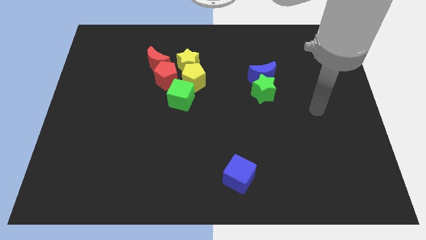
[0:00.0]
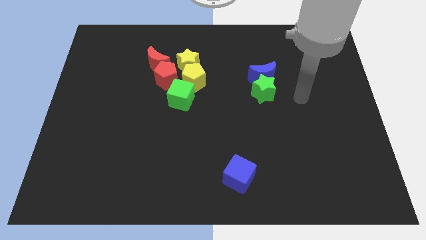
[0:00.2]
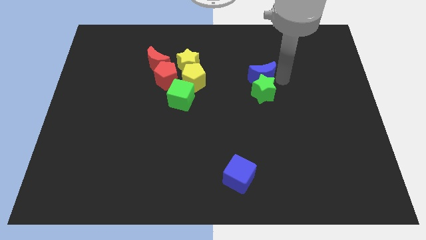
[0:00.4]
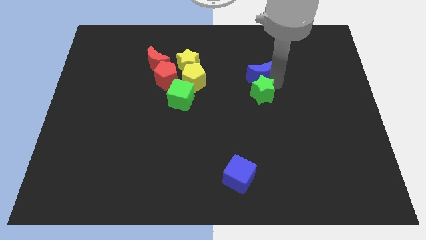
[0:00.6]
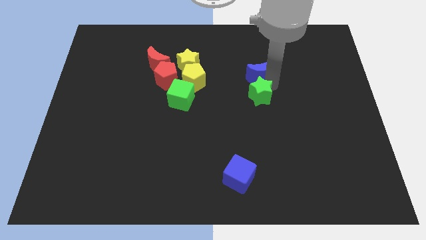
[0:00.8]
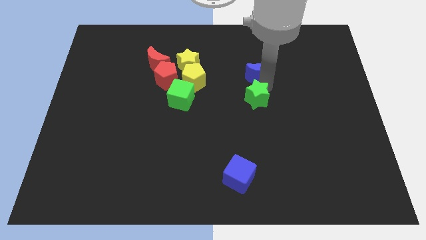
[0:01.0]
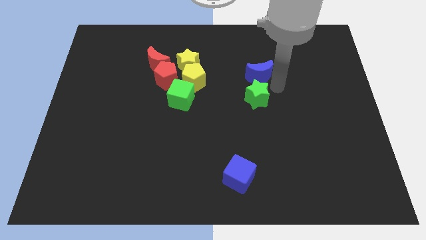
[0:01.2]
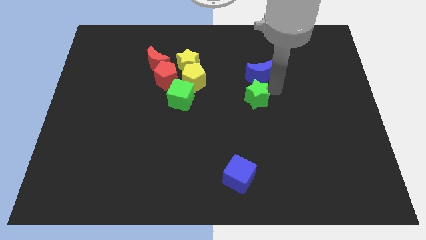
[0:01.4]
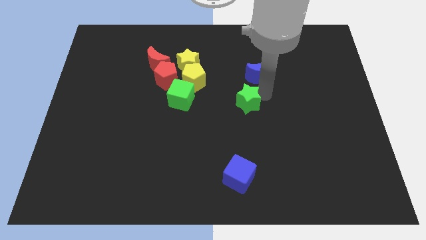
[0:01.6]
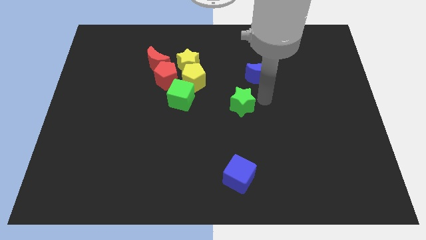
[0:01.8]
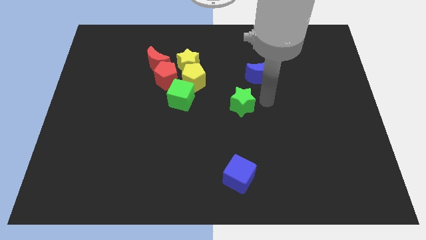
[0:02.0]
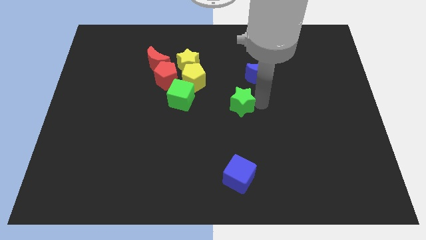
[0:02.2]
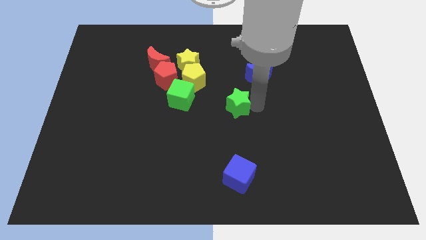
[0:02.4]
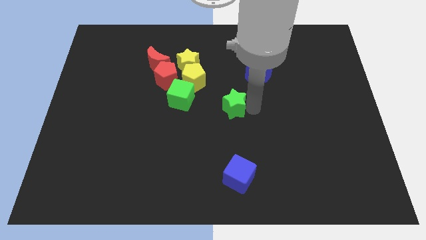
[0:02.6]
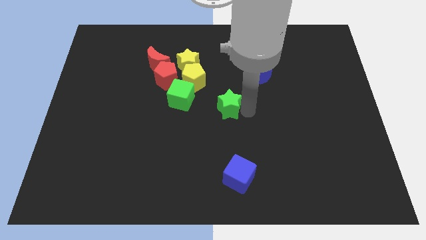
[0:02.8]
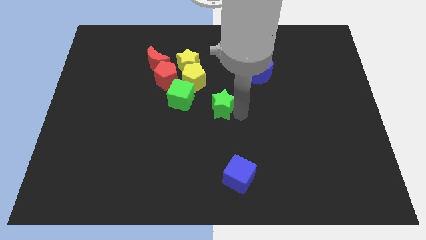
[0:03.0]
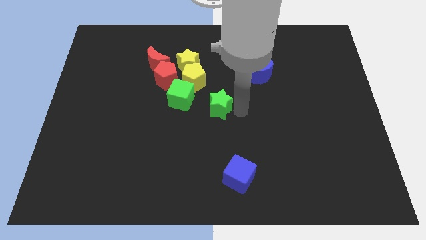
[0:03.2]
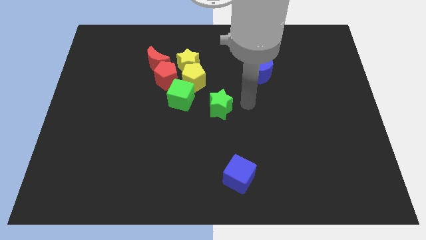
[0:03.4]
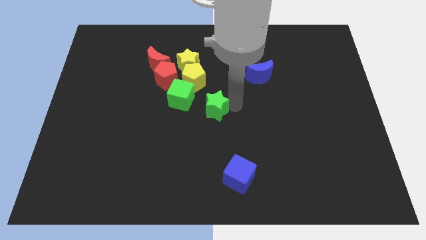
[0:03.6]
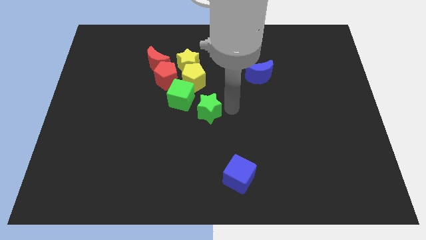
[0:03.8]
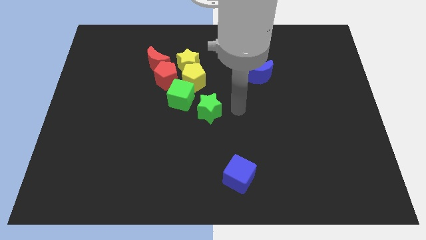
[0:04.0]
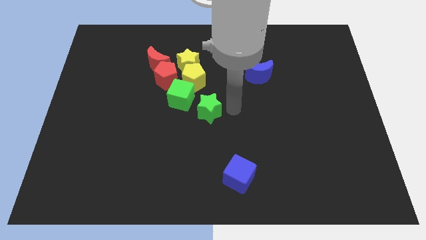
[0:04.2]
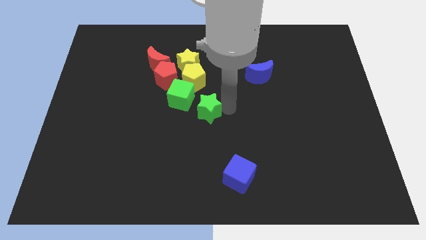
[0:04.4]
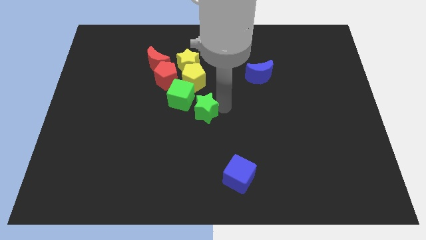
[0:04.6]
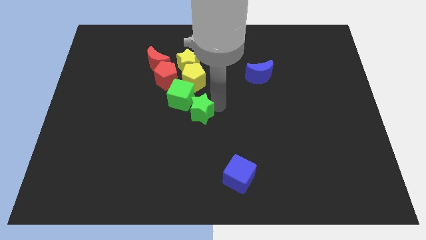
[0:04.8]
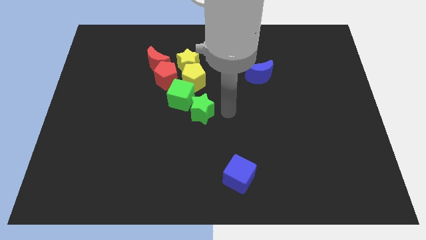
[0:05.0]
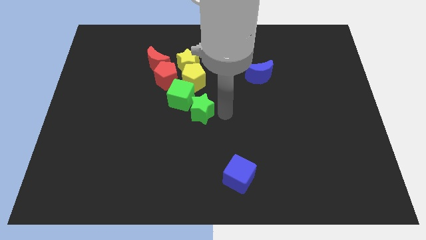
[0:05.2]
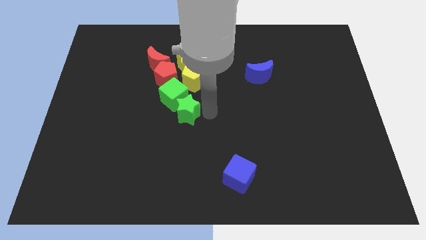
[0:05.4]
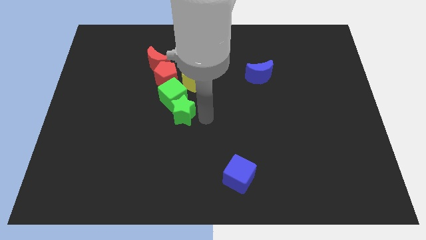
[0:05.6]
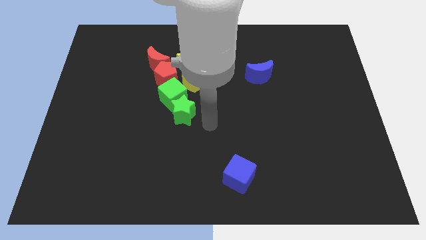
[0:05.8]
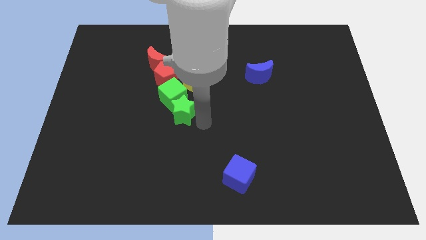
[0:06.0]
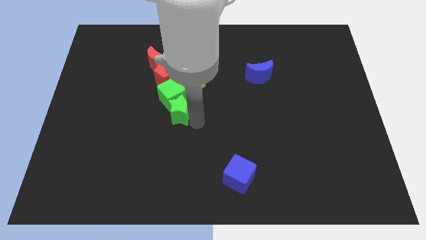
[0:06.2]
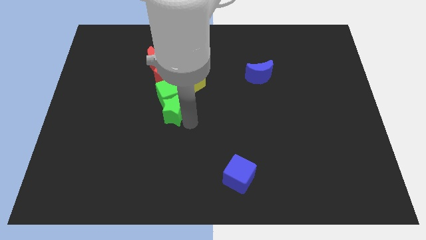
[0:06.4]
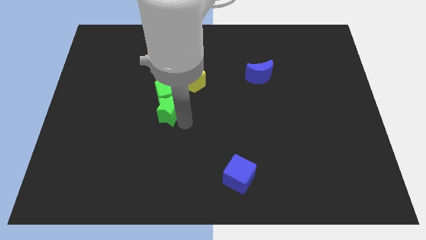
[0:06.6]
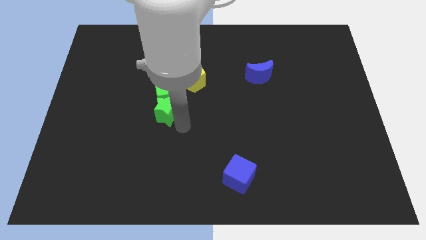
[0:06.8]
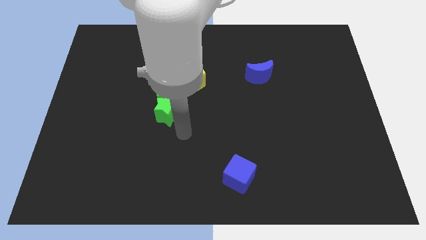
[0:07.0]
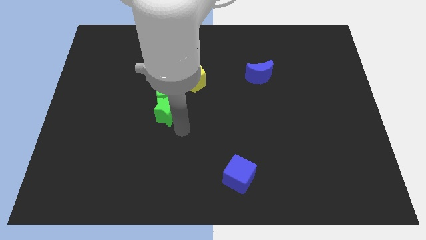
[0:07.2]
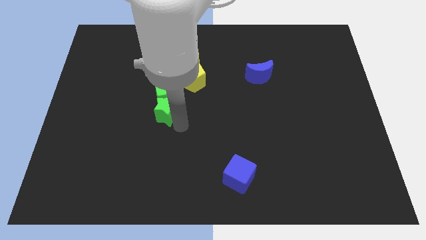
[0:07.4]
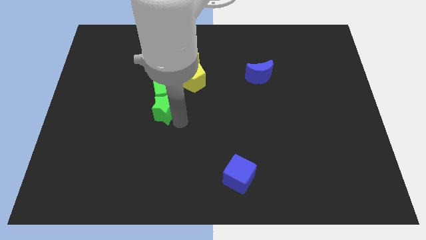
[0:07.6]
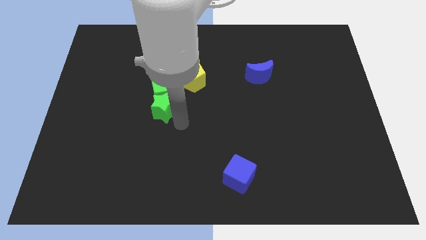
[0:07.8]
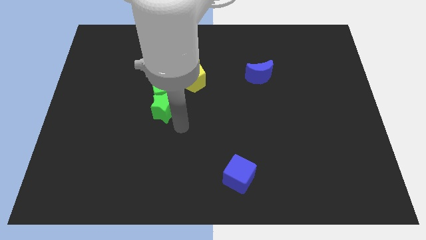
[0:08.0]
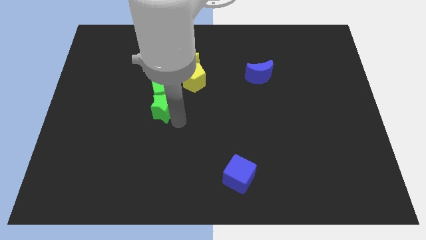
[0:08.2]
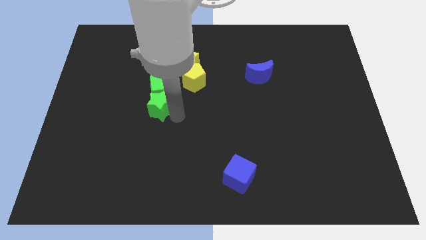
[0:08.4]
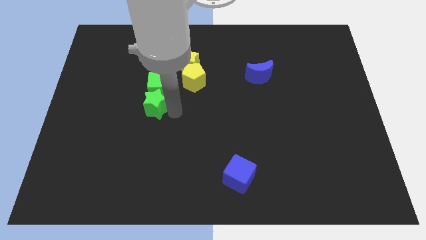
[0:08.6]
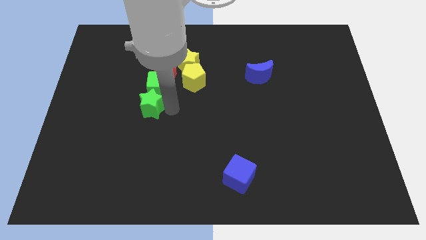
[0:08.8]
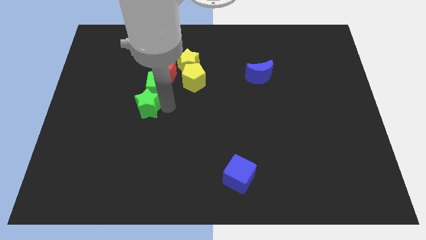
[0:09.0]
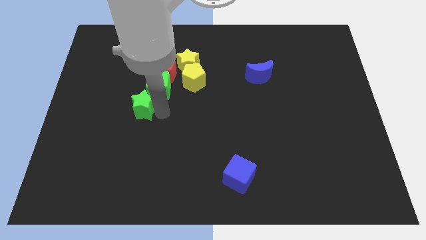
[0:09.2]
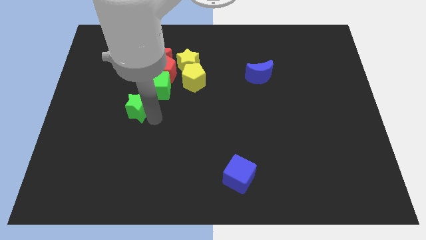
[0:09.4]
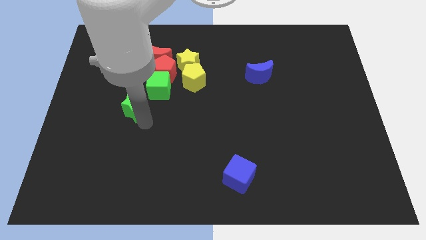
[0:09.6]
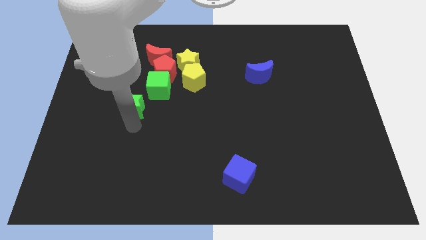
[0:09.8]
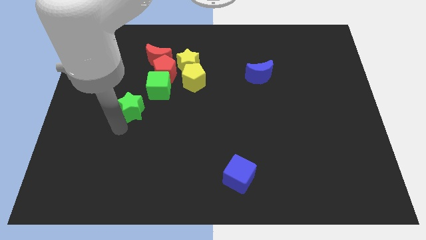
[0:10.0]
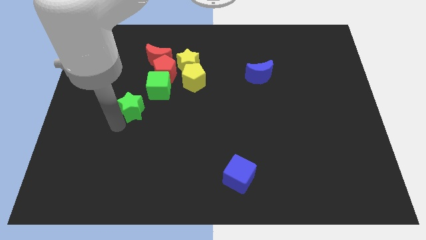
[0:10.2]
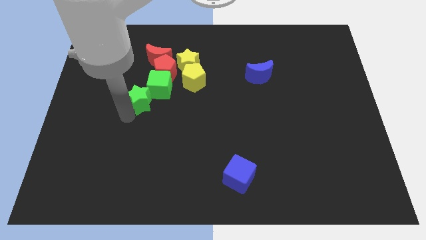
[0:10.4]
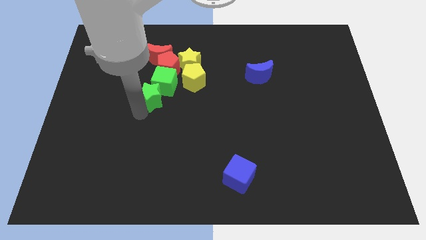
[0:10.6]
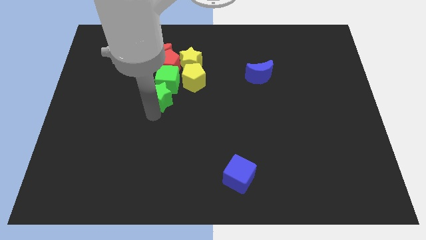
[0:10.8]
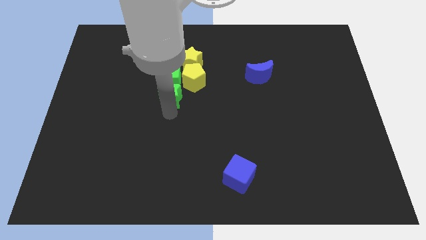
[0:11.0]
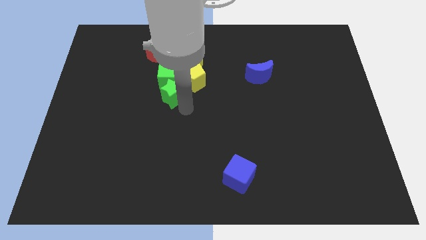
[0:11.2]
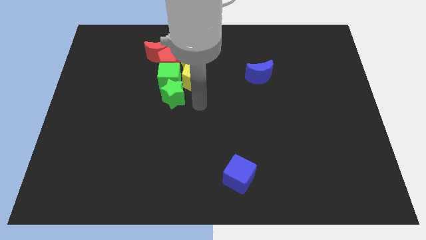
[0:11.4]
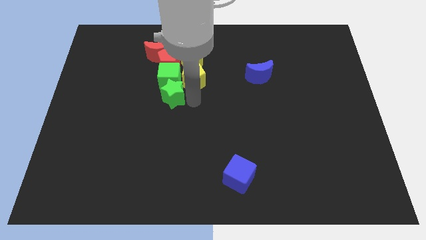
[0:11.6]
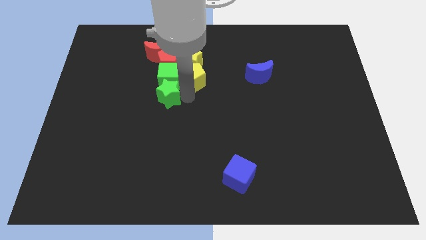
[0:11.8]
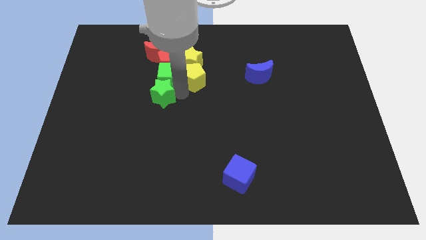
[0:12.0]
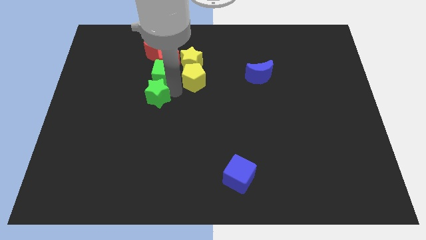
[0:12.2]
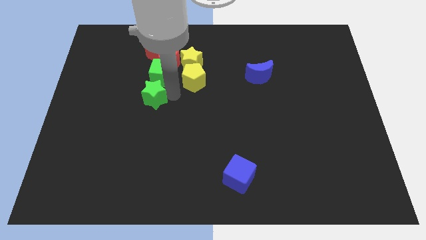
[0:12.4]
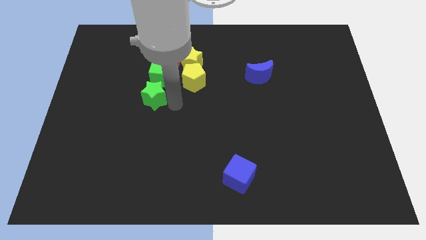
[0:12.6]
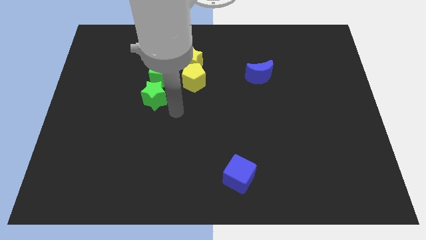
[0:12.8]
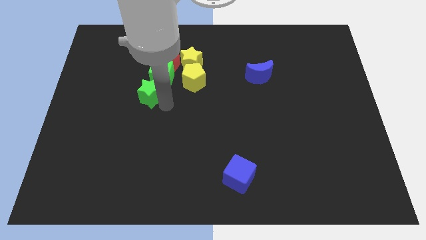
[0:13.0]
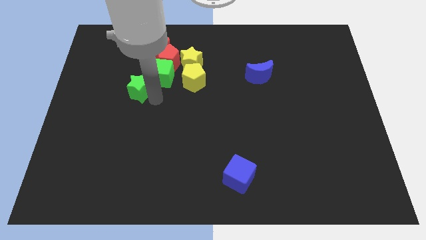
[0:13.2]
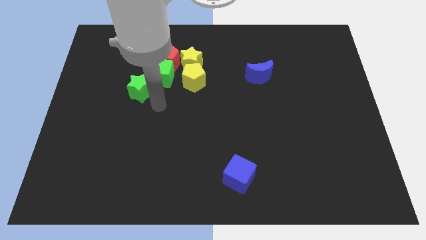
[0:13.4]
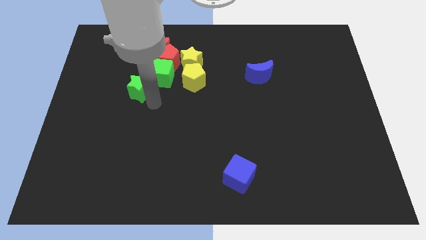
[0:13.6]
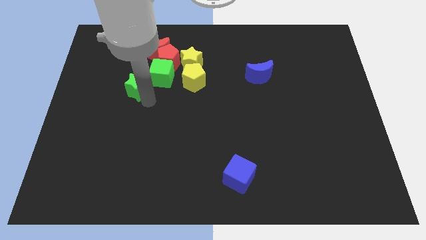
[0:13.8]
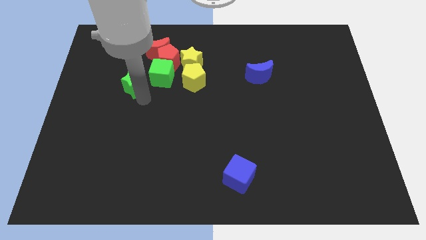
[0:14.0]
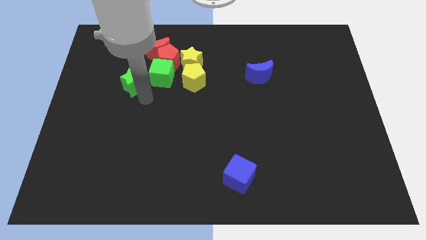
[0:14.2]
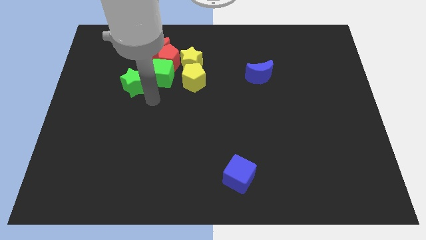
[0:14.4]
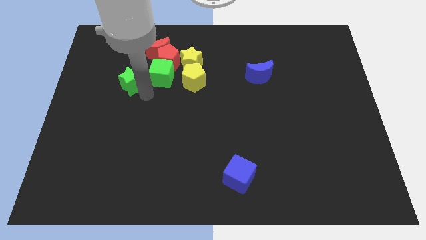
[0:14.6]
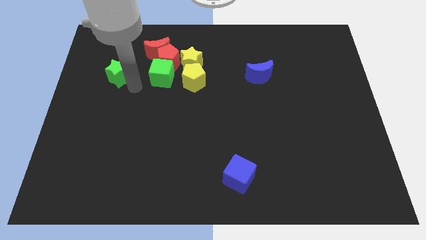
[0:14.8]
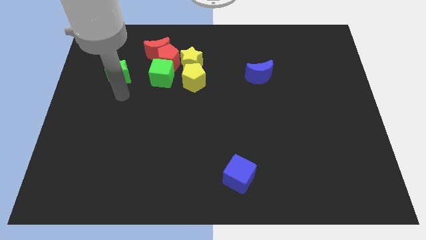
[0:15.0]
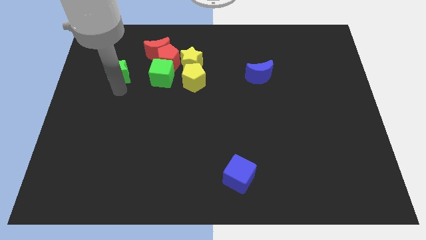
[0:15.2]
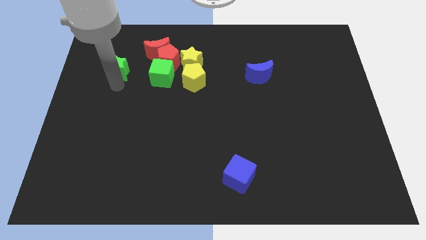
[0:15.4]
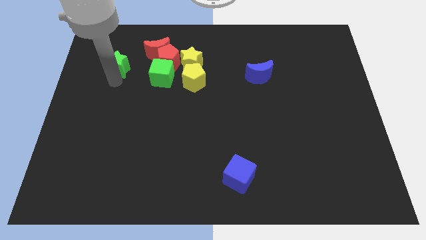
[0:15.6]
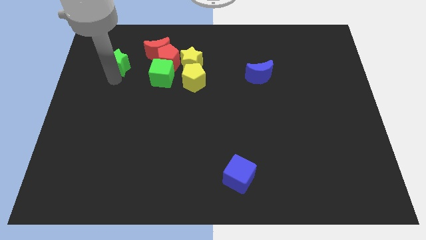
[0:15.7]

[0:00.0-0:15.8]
move the green star to the left side of the red moon
